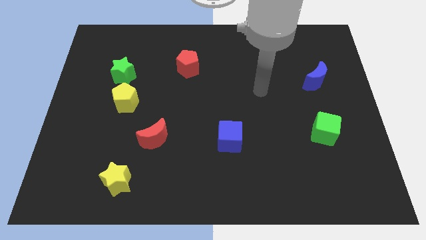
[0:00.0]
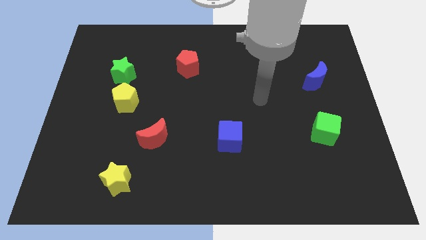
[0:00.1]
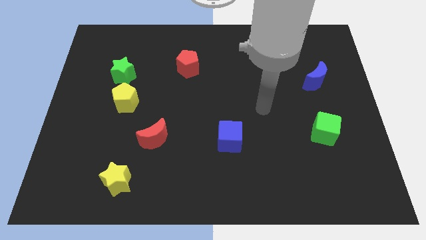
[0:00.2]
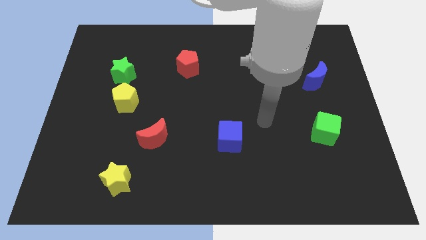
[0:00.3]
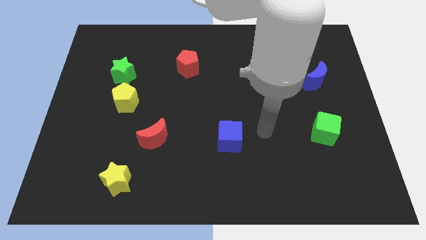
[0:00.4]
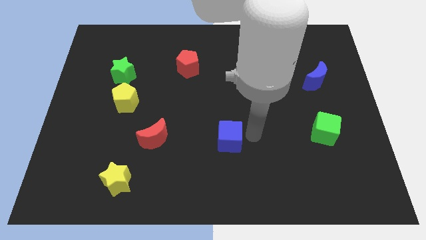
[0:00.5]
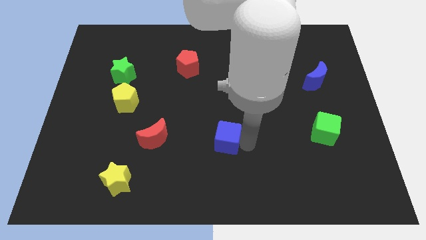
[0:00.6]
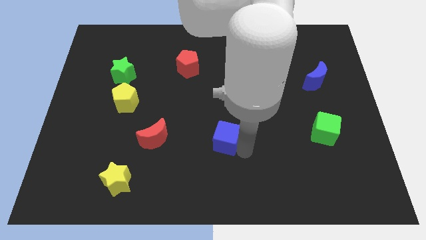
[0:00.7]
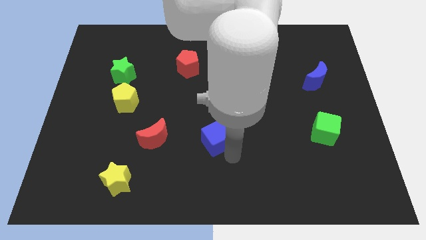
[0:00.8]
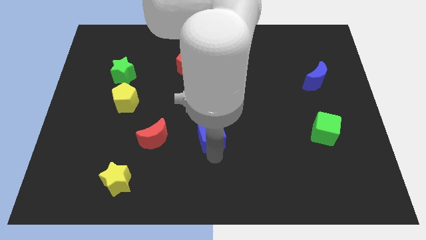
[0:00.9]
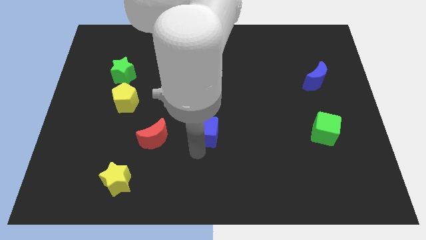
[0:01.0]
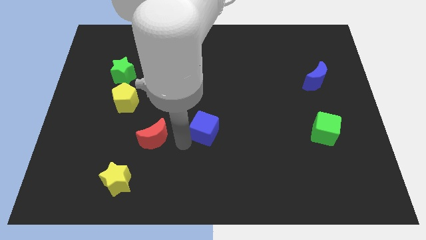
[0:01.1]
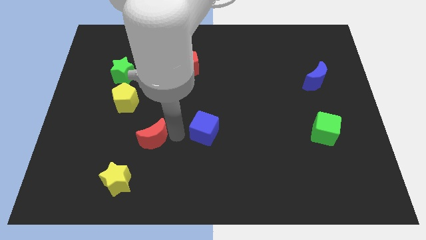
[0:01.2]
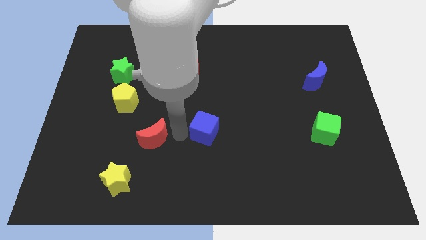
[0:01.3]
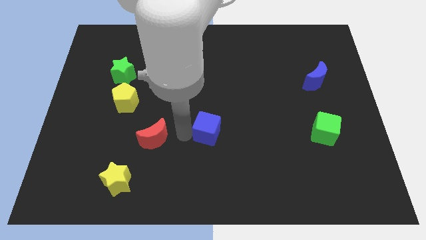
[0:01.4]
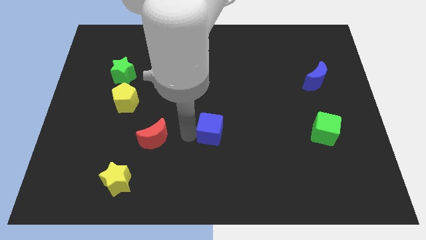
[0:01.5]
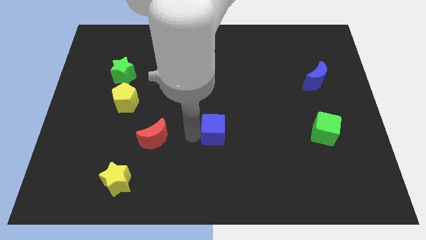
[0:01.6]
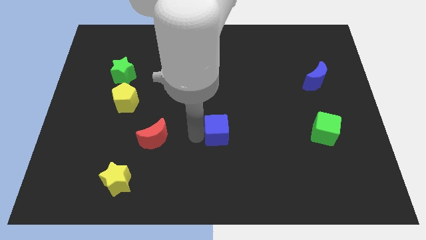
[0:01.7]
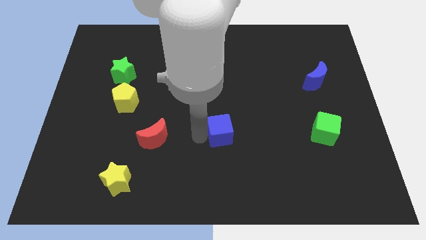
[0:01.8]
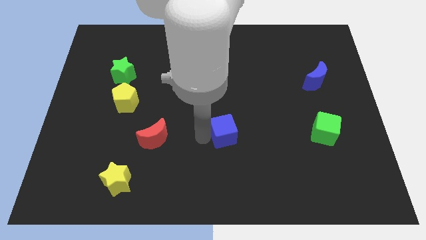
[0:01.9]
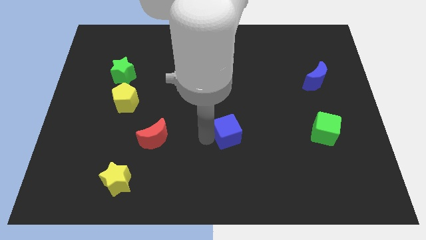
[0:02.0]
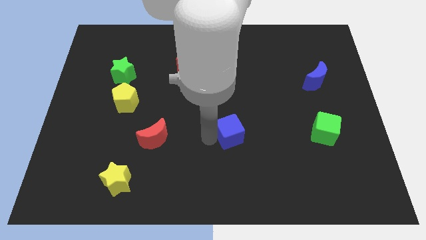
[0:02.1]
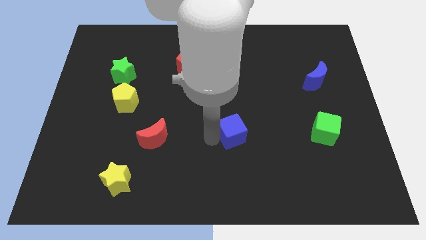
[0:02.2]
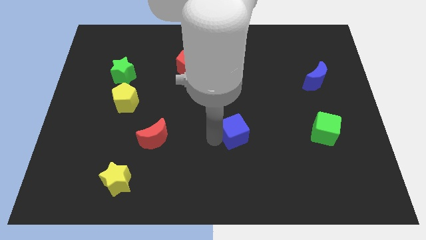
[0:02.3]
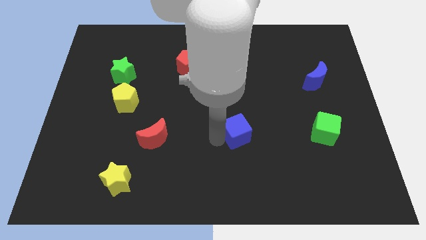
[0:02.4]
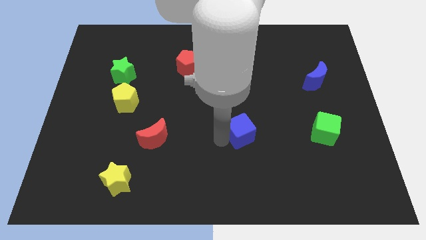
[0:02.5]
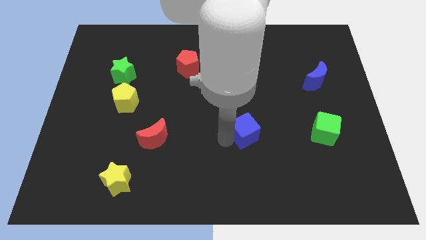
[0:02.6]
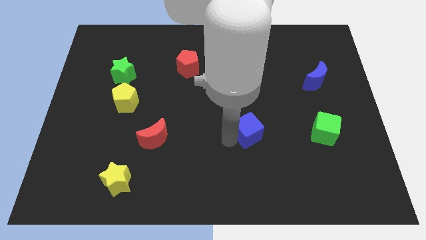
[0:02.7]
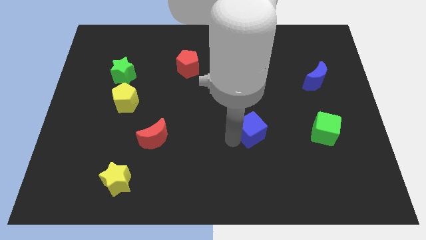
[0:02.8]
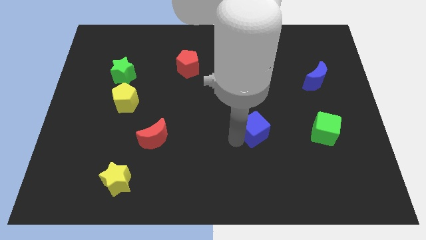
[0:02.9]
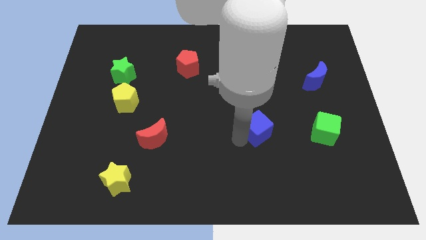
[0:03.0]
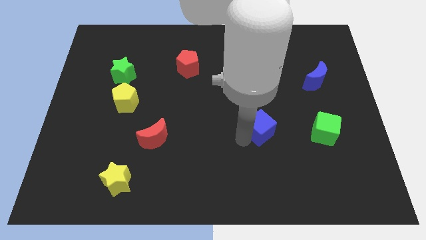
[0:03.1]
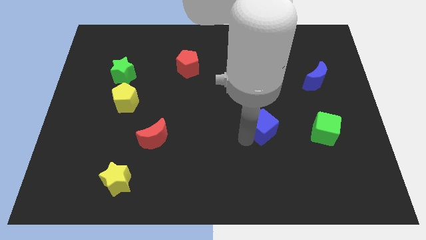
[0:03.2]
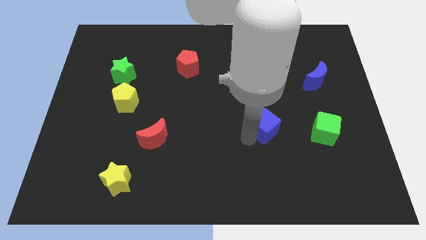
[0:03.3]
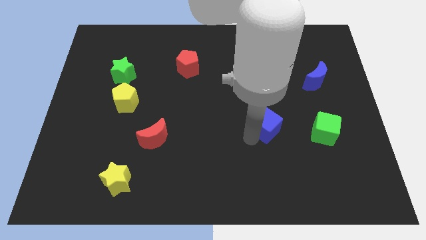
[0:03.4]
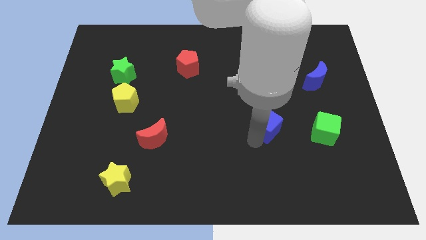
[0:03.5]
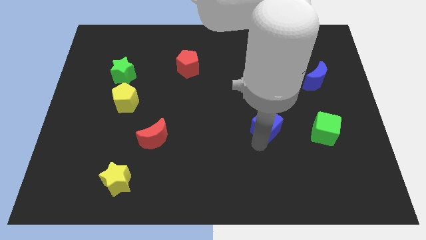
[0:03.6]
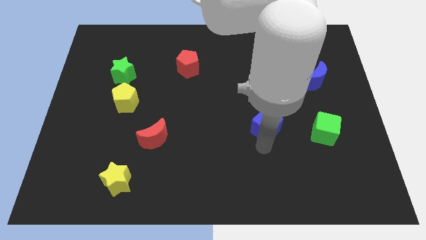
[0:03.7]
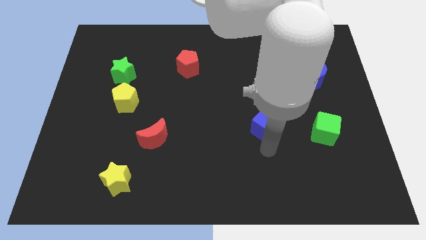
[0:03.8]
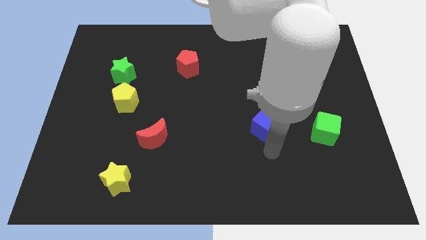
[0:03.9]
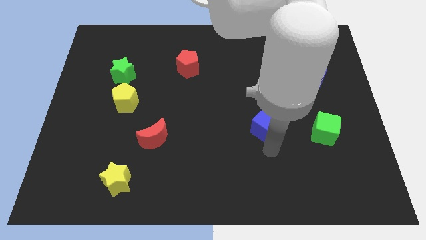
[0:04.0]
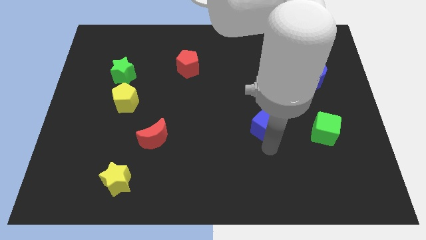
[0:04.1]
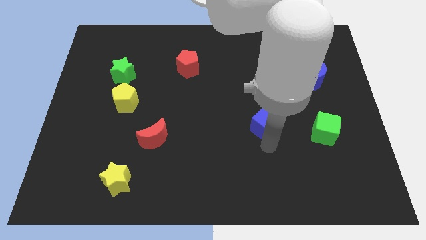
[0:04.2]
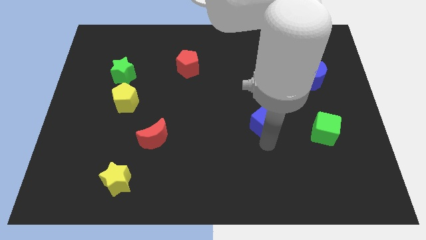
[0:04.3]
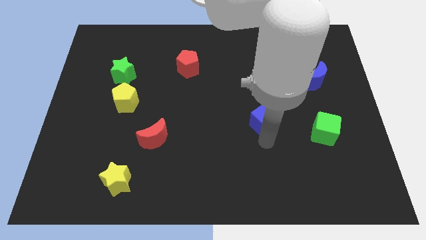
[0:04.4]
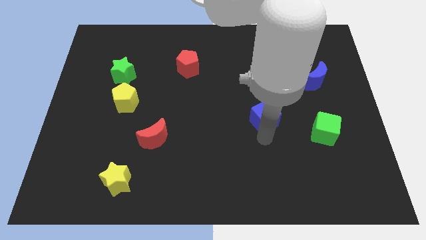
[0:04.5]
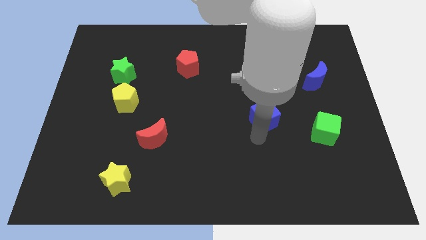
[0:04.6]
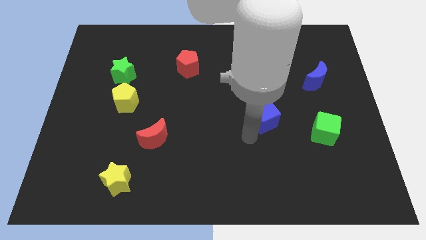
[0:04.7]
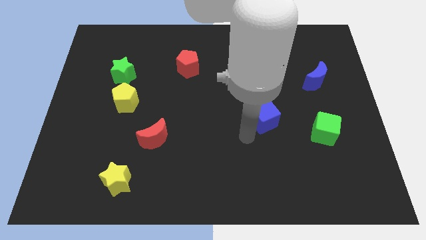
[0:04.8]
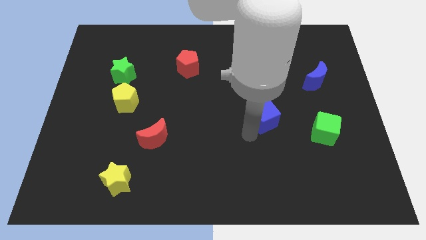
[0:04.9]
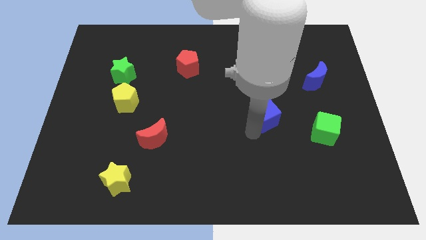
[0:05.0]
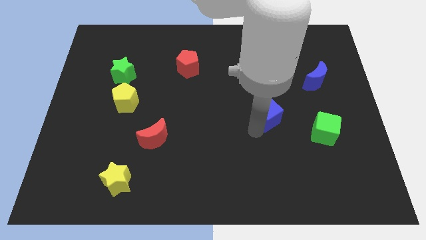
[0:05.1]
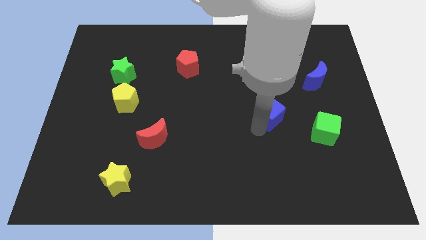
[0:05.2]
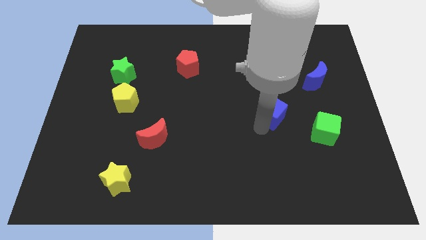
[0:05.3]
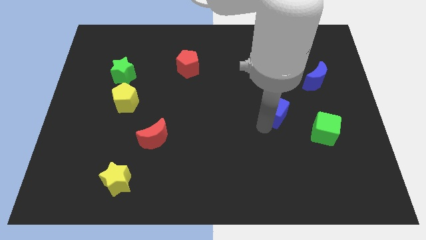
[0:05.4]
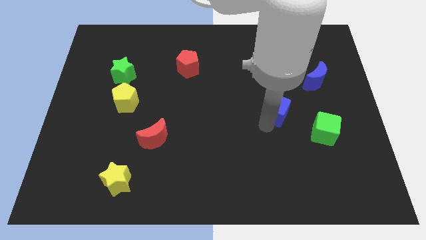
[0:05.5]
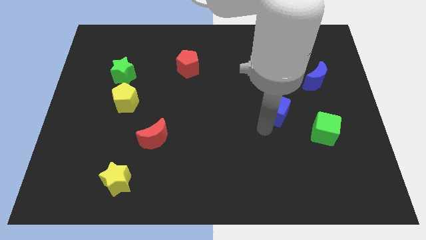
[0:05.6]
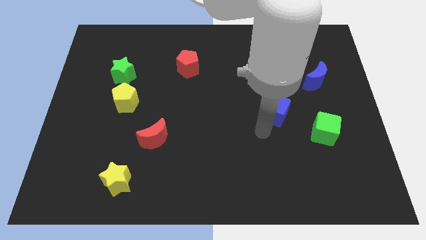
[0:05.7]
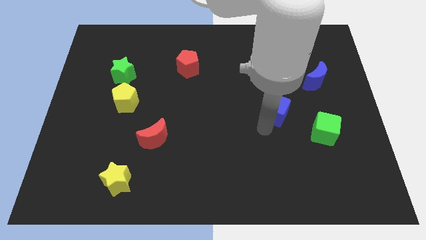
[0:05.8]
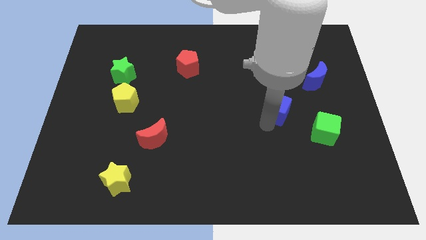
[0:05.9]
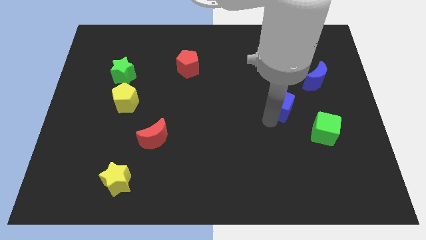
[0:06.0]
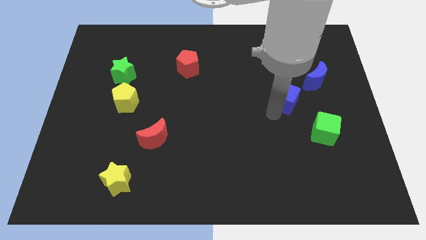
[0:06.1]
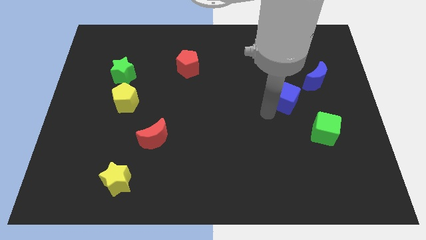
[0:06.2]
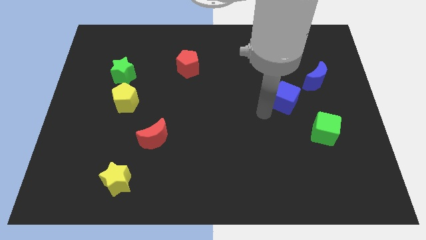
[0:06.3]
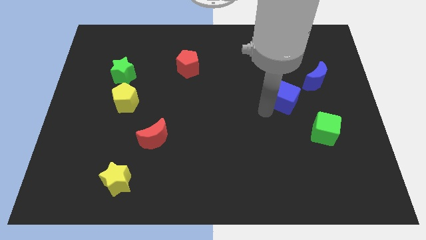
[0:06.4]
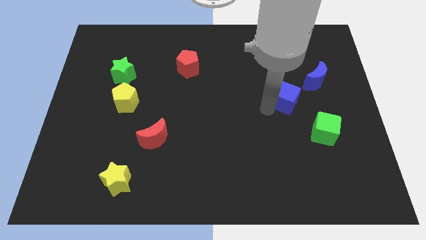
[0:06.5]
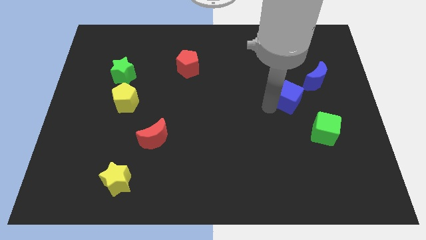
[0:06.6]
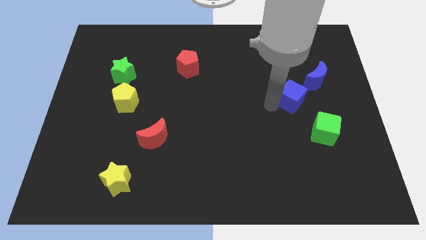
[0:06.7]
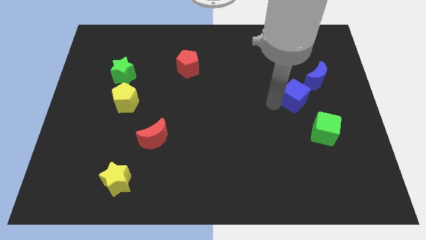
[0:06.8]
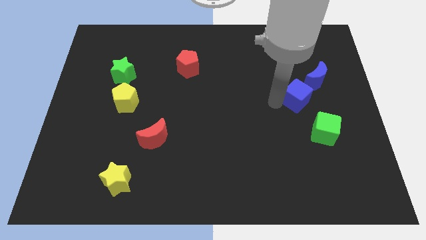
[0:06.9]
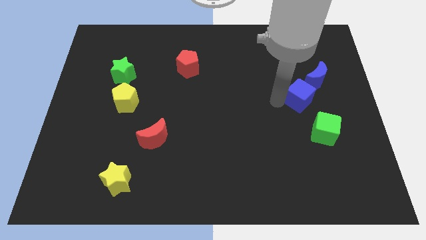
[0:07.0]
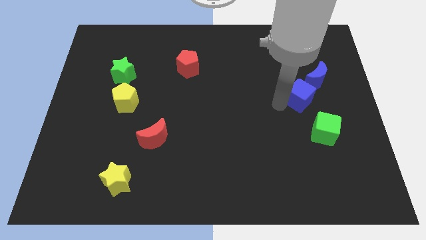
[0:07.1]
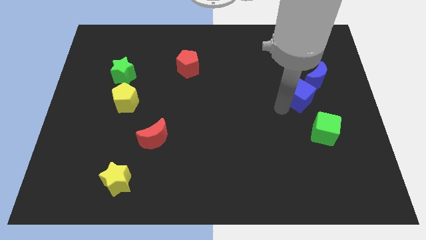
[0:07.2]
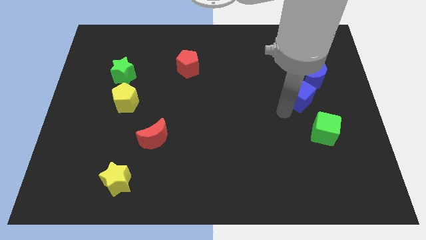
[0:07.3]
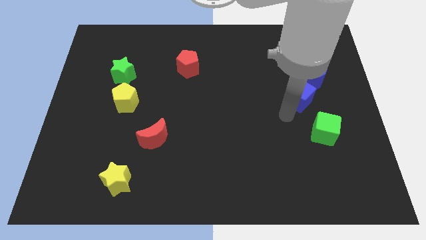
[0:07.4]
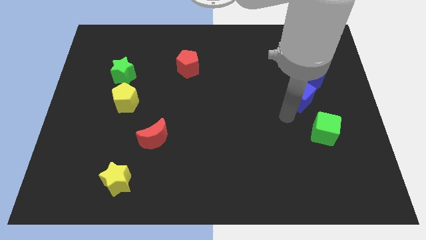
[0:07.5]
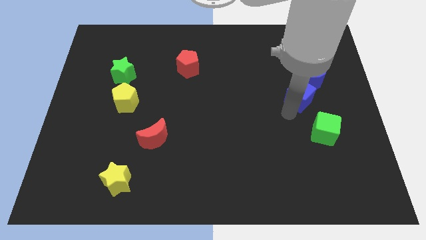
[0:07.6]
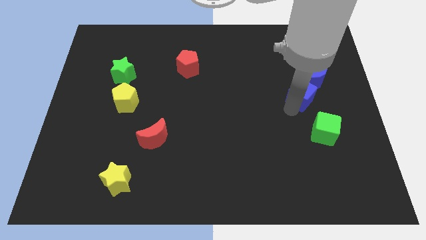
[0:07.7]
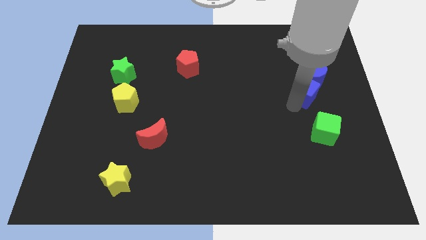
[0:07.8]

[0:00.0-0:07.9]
slide the blue cube to the blue moon

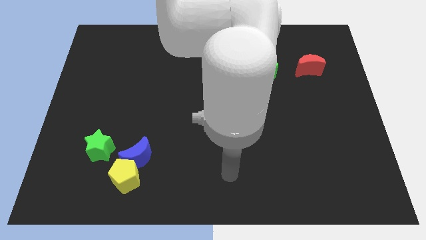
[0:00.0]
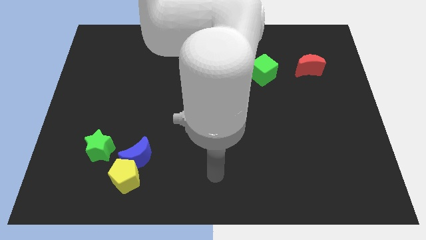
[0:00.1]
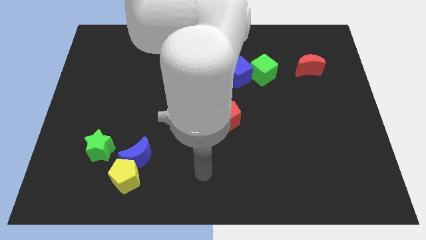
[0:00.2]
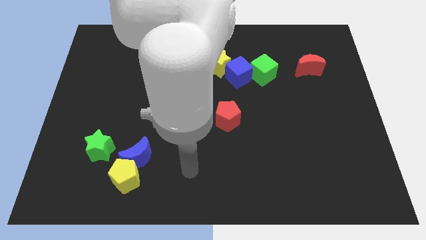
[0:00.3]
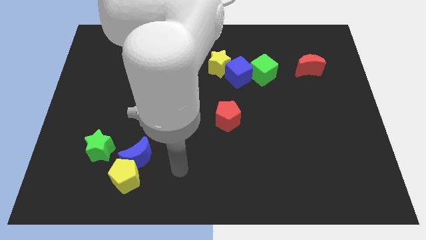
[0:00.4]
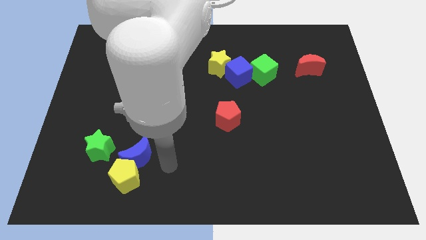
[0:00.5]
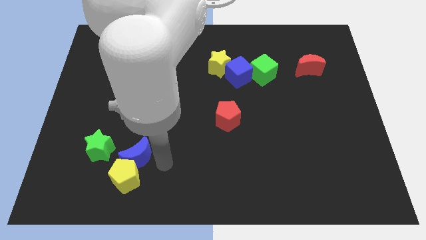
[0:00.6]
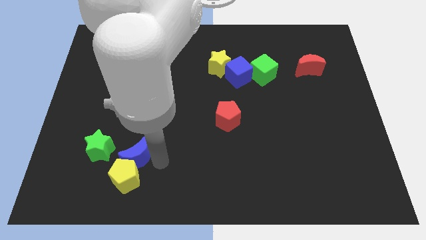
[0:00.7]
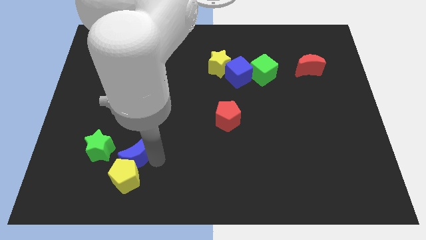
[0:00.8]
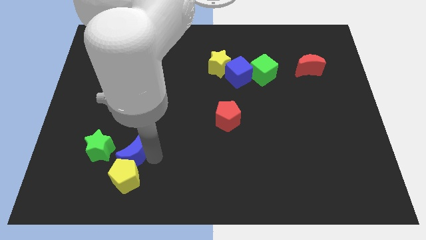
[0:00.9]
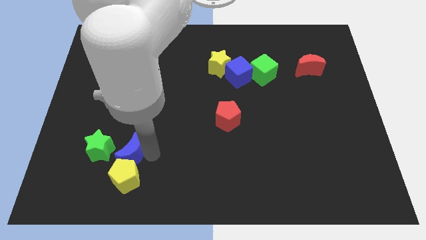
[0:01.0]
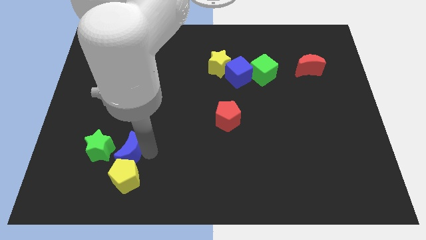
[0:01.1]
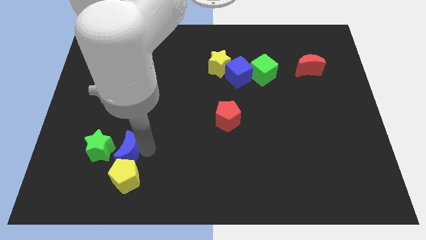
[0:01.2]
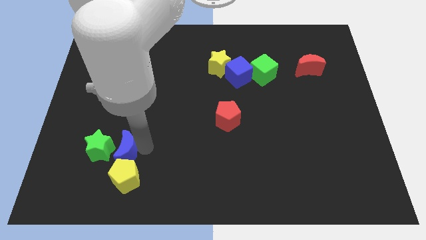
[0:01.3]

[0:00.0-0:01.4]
put the blue moon to the green star
